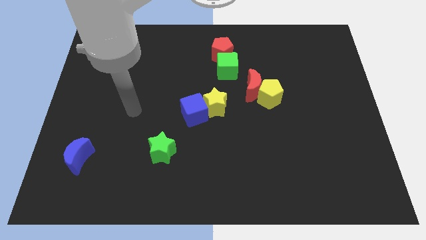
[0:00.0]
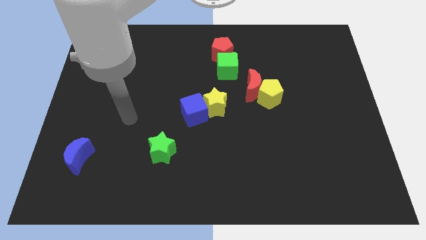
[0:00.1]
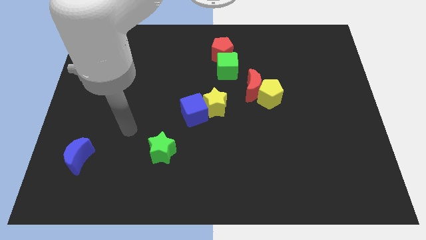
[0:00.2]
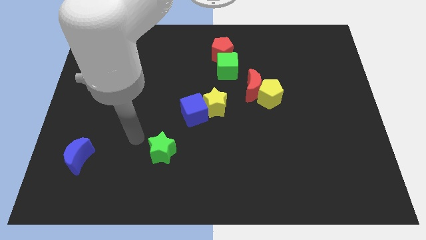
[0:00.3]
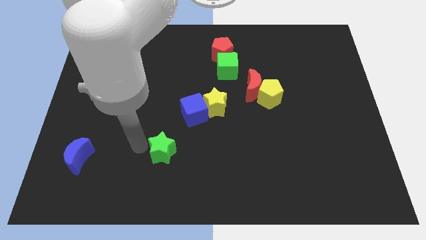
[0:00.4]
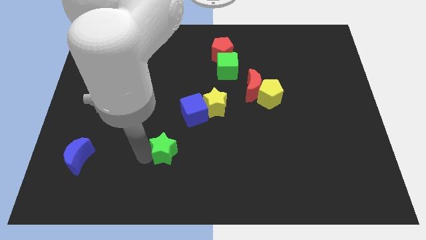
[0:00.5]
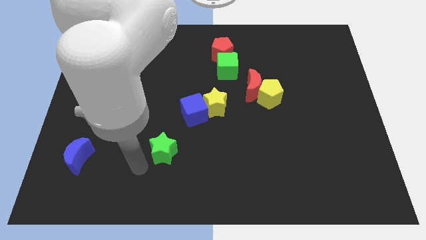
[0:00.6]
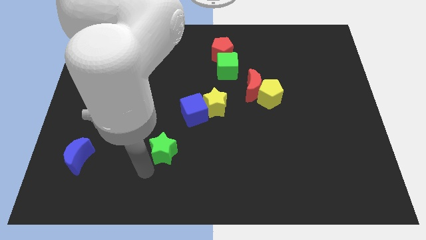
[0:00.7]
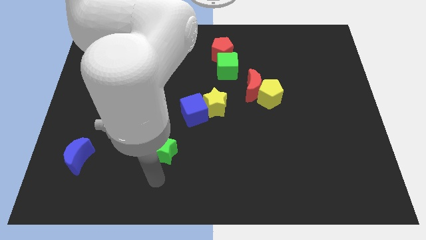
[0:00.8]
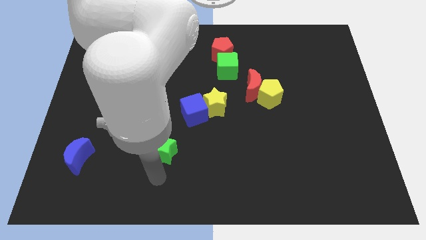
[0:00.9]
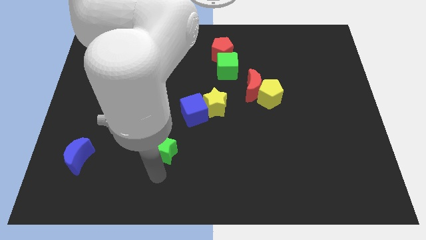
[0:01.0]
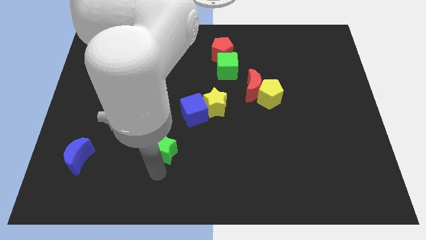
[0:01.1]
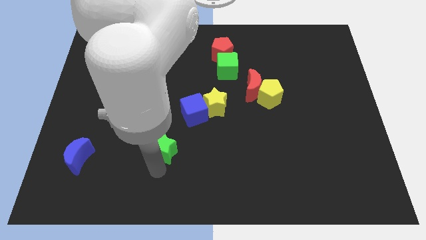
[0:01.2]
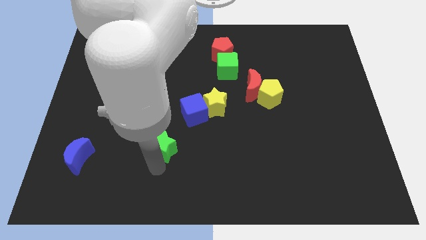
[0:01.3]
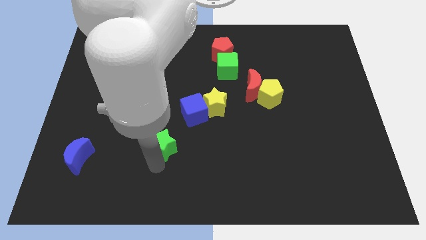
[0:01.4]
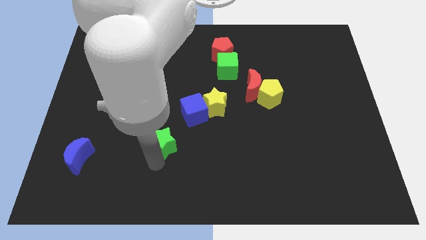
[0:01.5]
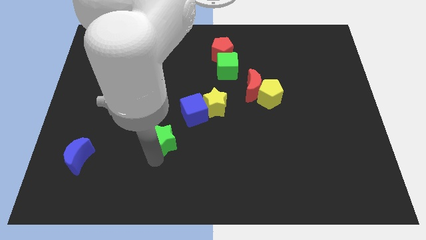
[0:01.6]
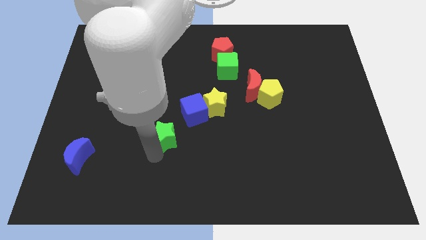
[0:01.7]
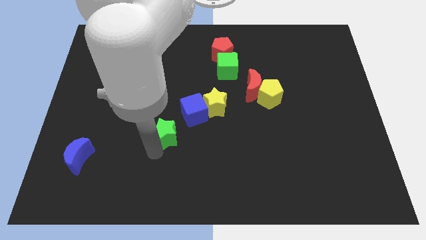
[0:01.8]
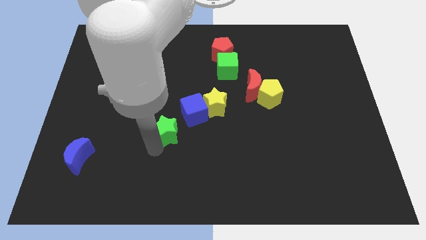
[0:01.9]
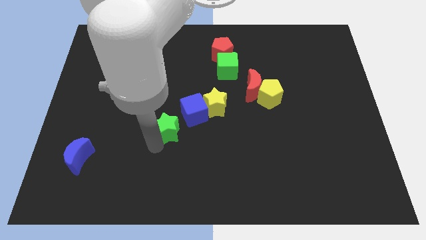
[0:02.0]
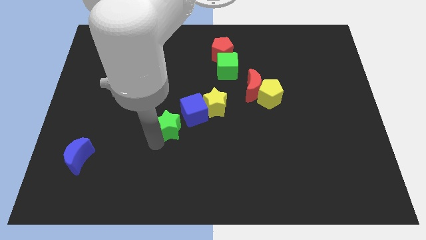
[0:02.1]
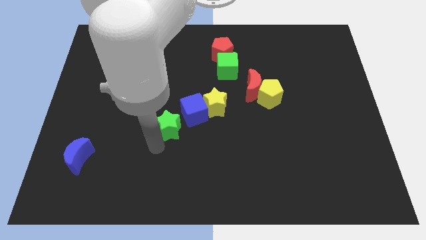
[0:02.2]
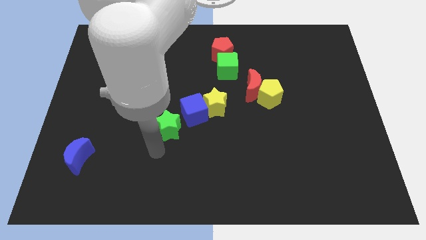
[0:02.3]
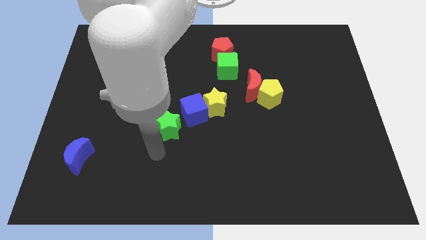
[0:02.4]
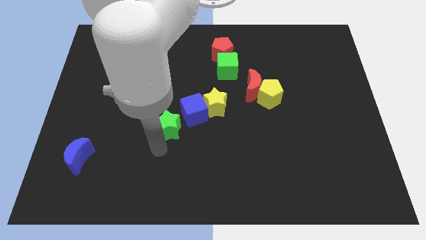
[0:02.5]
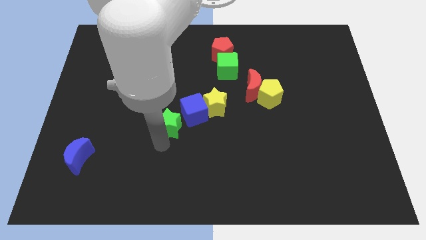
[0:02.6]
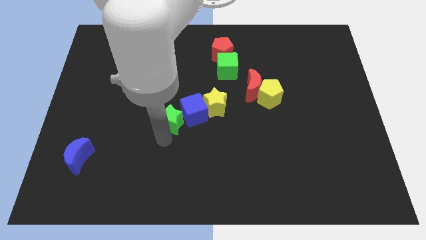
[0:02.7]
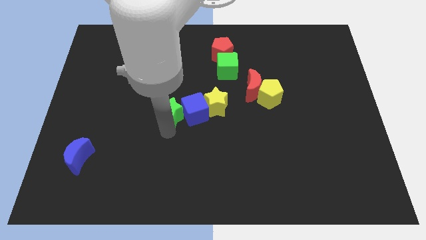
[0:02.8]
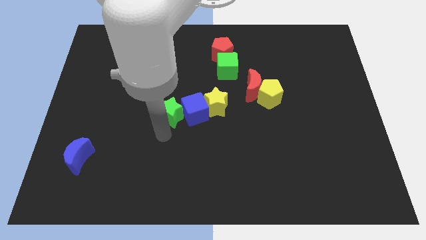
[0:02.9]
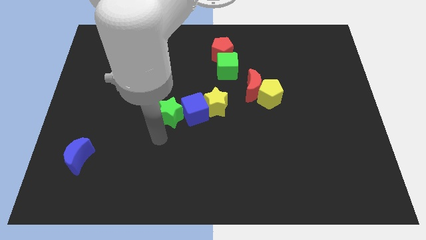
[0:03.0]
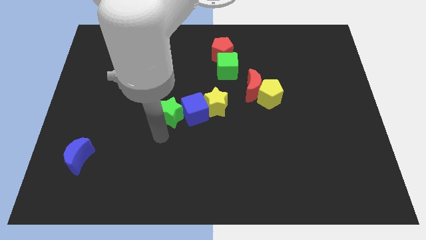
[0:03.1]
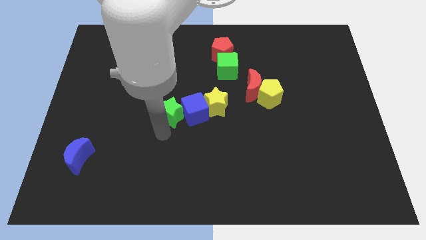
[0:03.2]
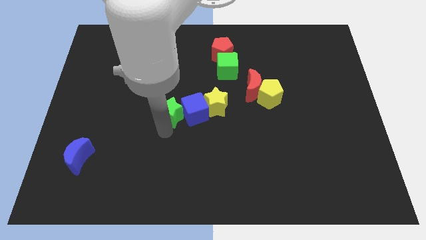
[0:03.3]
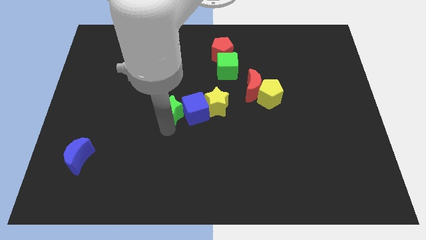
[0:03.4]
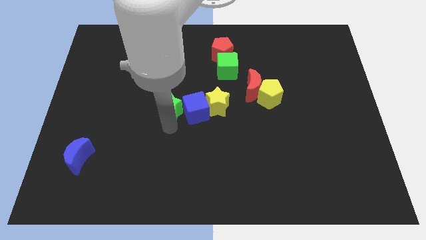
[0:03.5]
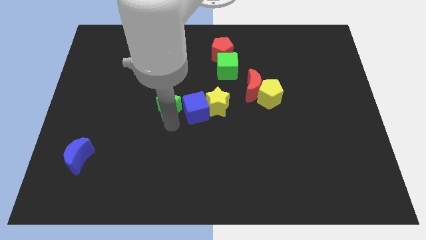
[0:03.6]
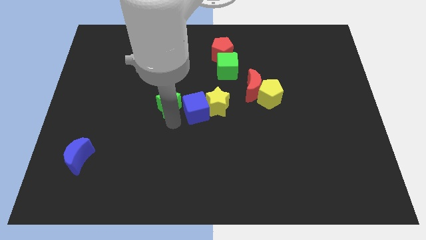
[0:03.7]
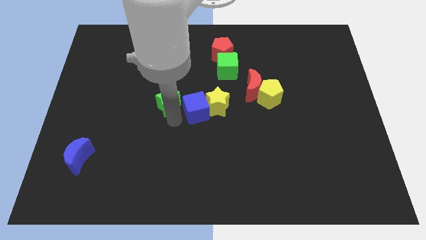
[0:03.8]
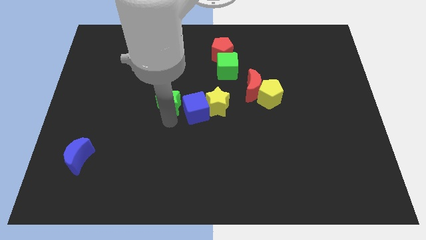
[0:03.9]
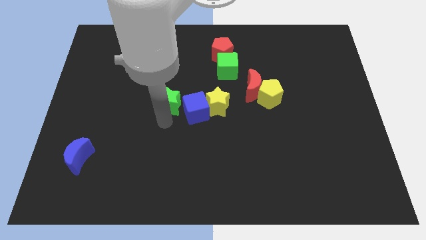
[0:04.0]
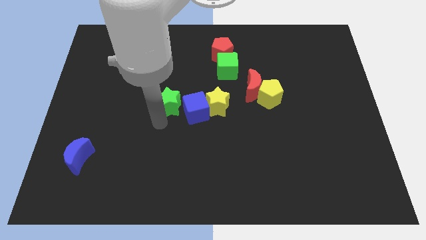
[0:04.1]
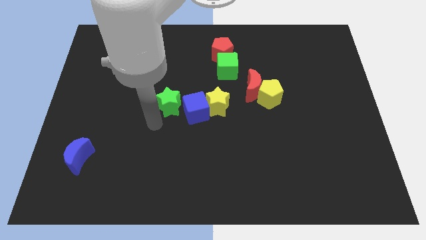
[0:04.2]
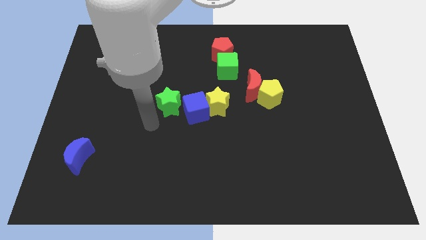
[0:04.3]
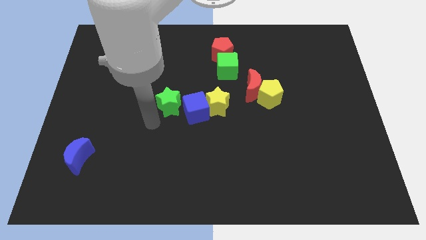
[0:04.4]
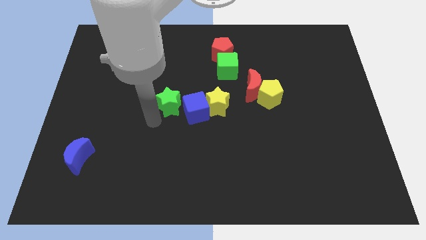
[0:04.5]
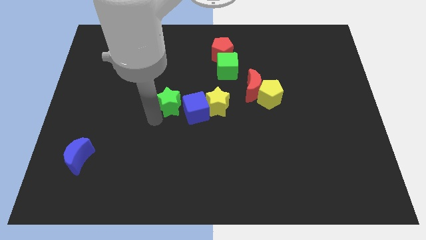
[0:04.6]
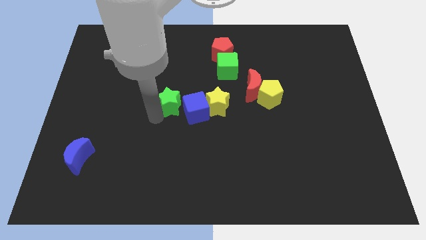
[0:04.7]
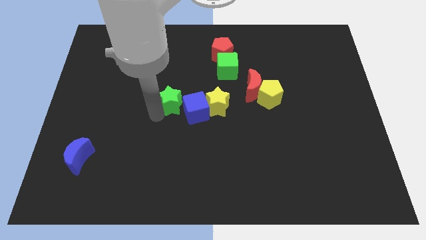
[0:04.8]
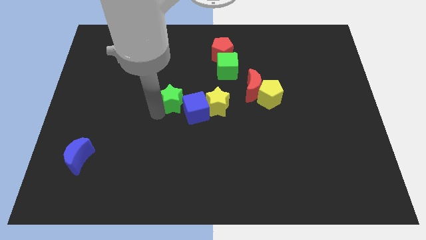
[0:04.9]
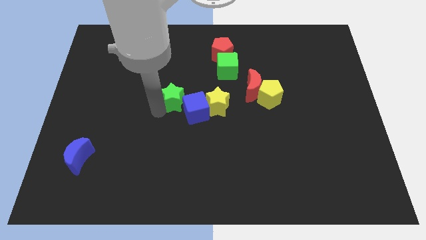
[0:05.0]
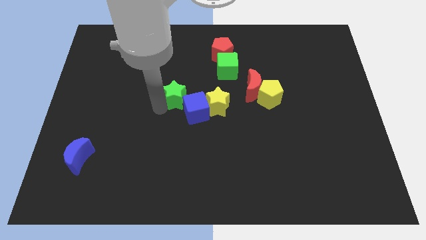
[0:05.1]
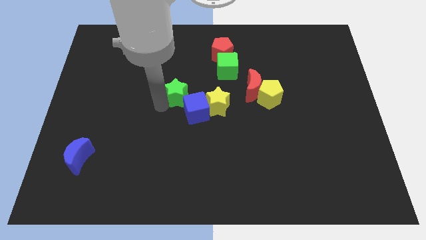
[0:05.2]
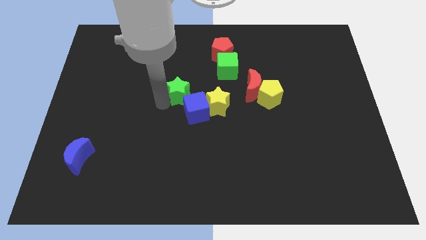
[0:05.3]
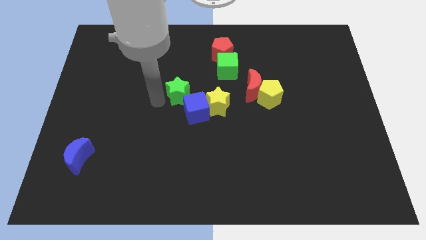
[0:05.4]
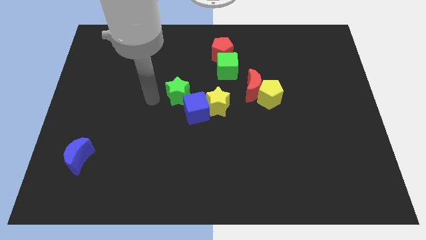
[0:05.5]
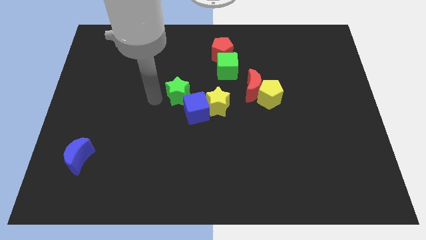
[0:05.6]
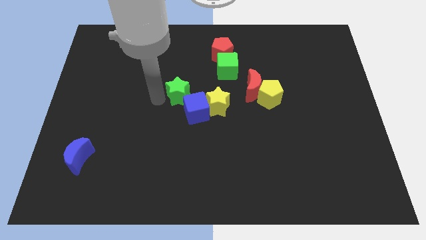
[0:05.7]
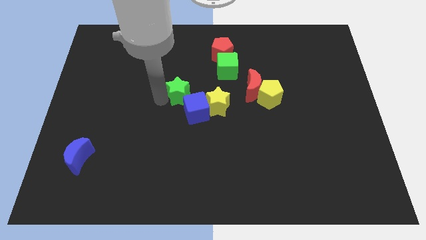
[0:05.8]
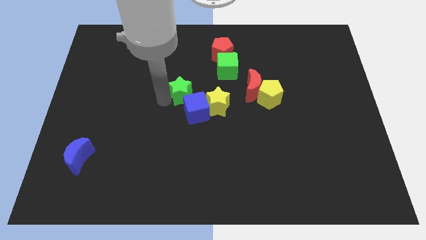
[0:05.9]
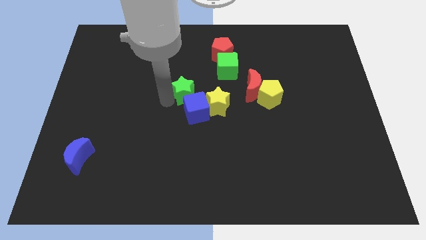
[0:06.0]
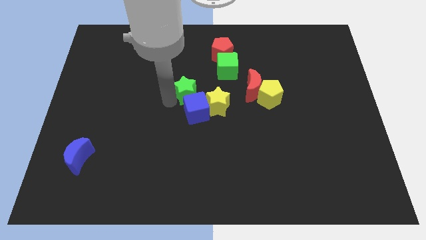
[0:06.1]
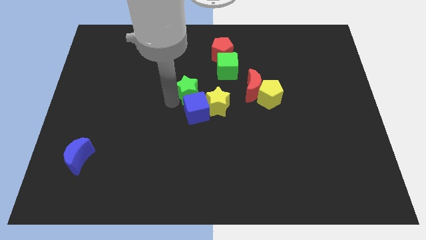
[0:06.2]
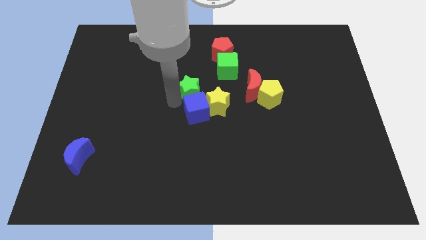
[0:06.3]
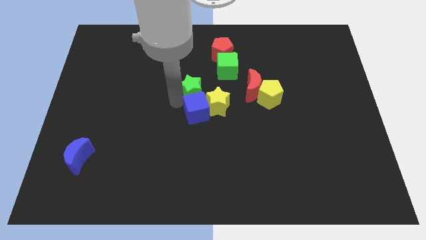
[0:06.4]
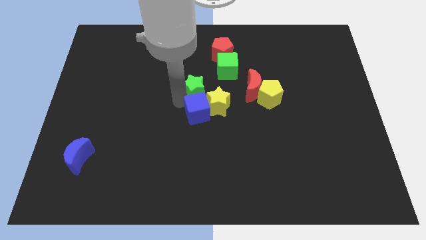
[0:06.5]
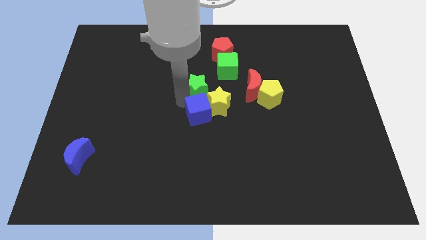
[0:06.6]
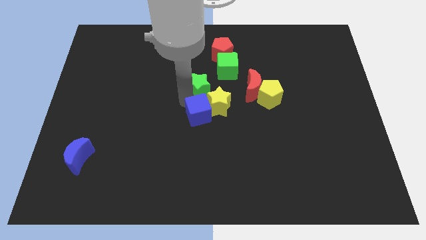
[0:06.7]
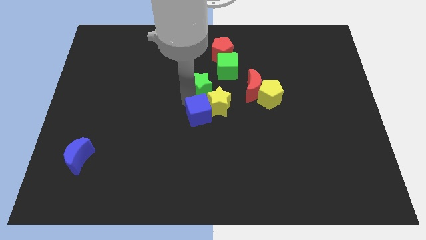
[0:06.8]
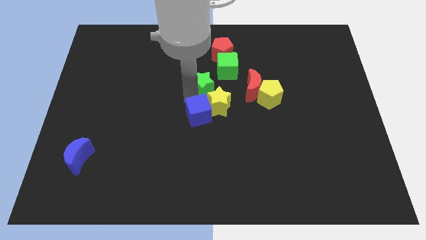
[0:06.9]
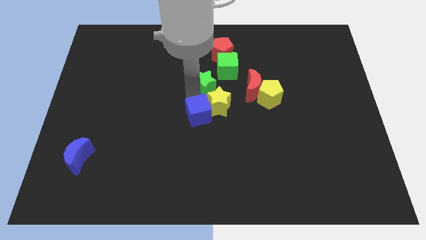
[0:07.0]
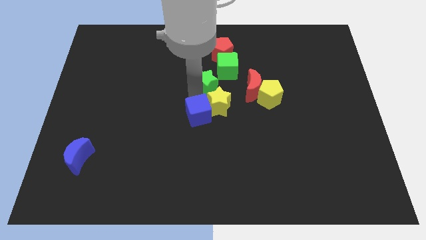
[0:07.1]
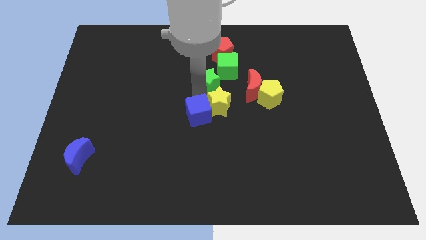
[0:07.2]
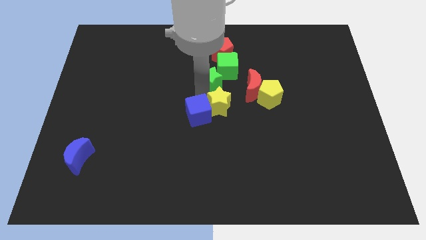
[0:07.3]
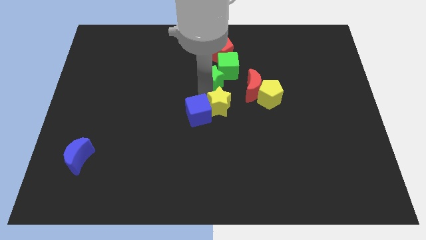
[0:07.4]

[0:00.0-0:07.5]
move the green star close to the green cube
